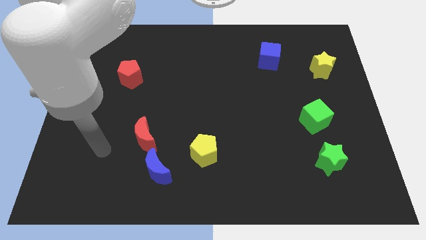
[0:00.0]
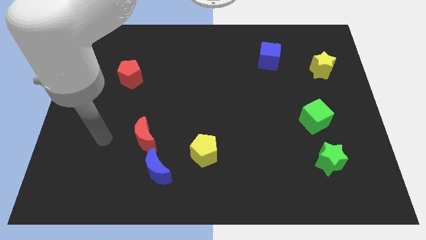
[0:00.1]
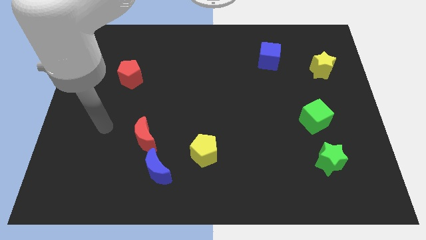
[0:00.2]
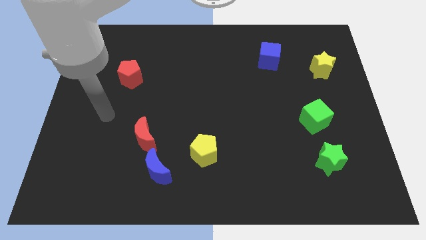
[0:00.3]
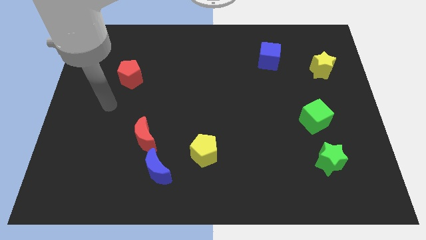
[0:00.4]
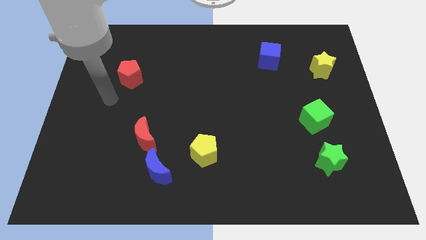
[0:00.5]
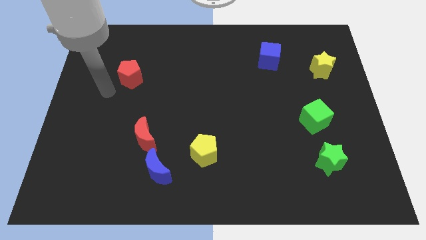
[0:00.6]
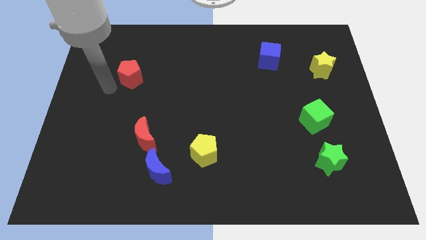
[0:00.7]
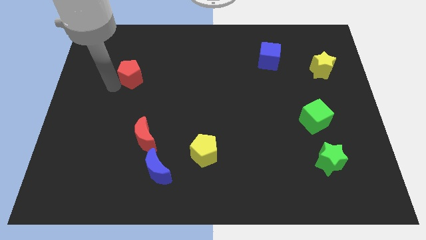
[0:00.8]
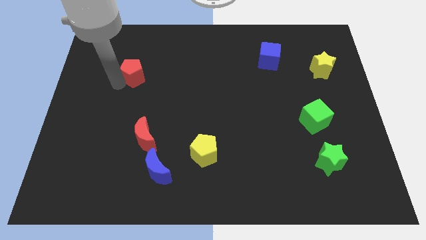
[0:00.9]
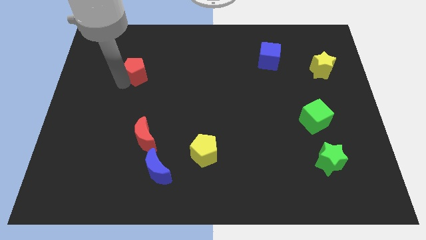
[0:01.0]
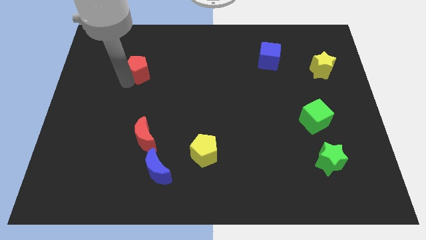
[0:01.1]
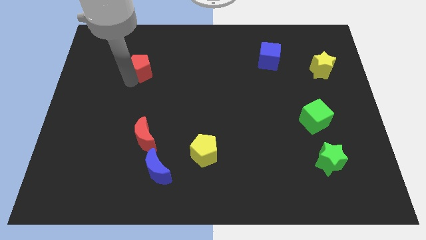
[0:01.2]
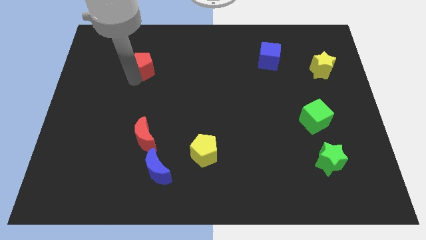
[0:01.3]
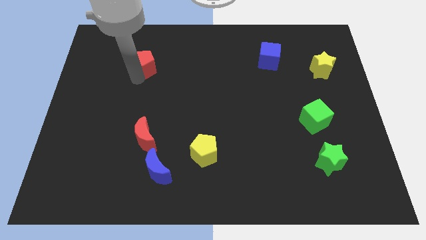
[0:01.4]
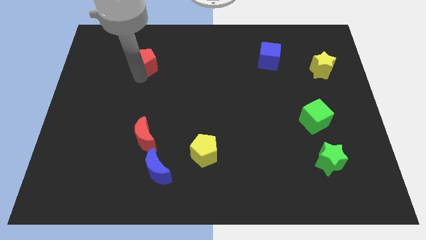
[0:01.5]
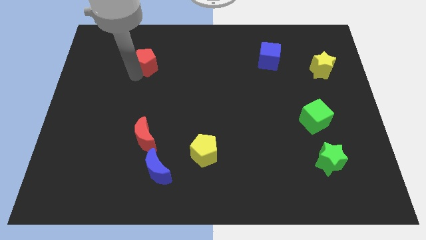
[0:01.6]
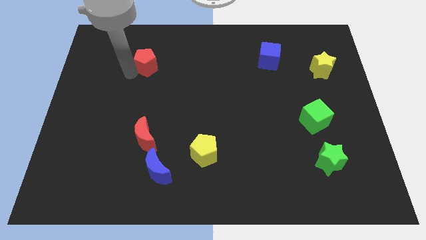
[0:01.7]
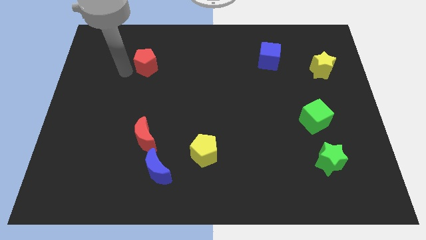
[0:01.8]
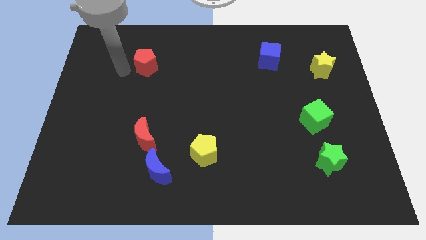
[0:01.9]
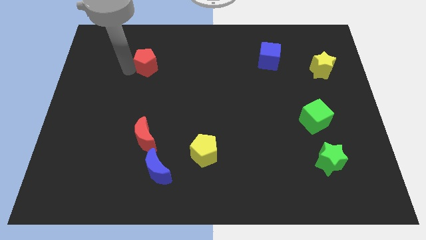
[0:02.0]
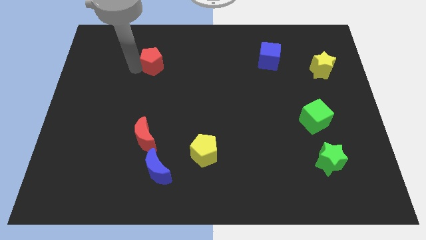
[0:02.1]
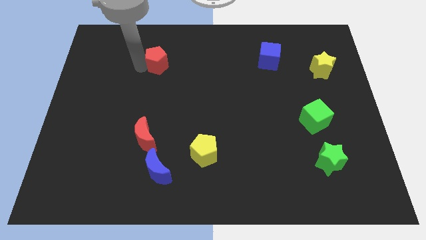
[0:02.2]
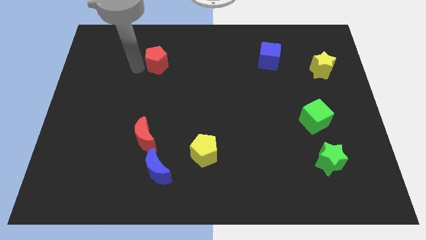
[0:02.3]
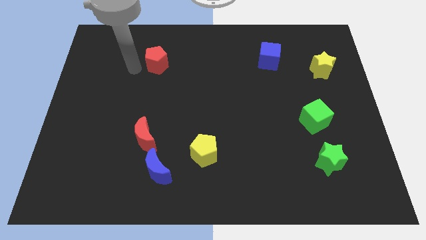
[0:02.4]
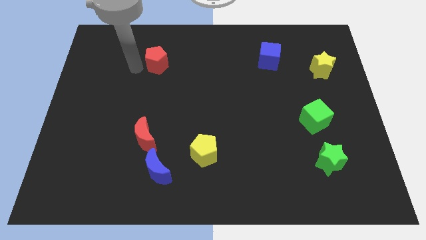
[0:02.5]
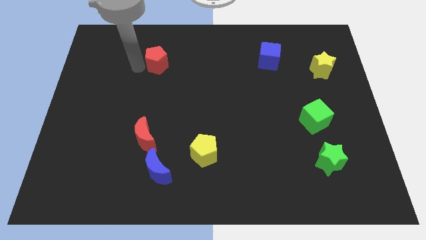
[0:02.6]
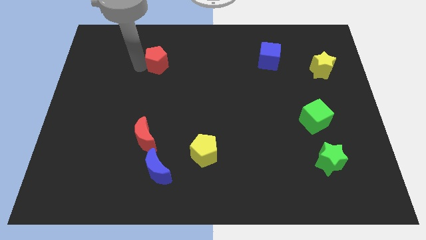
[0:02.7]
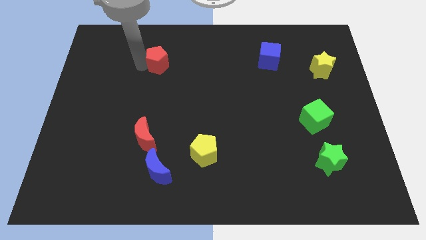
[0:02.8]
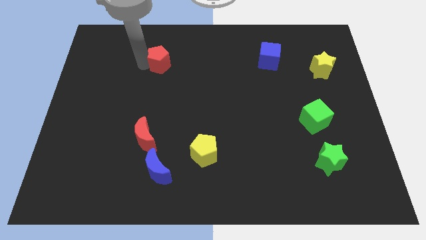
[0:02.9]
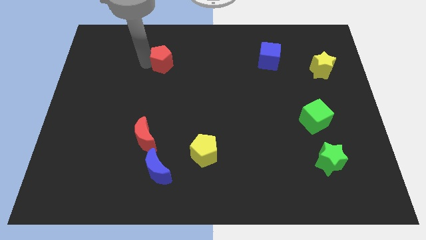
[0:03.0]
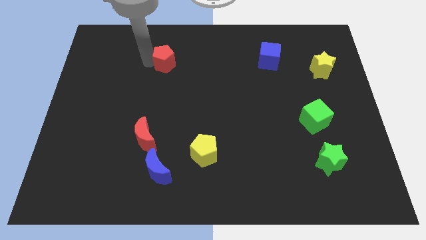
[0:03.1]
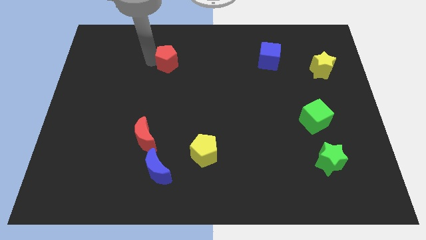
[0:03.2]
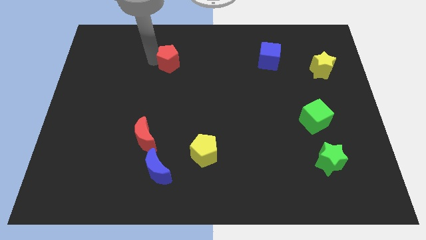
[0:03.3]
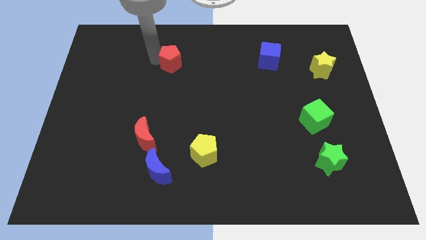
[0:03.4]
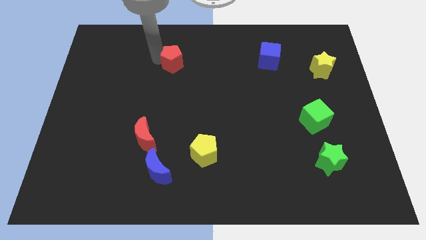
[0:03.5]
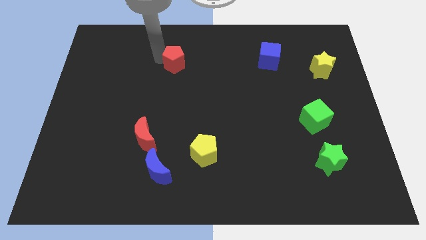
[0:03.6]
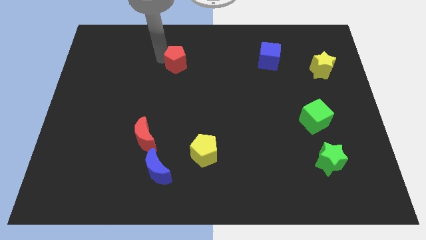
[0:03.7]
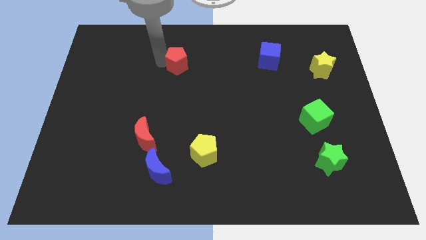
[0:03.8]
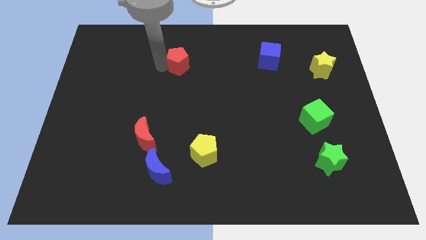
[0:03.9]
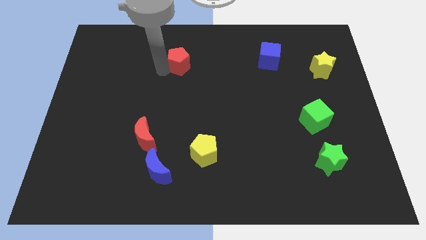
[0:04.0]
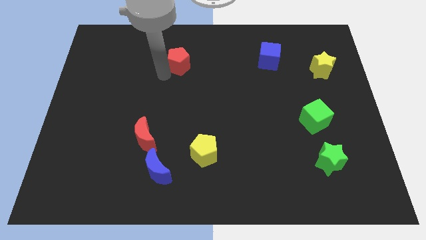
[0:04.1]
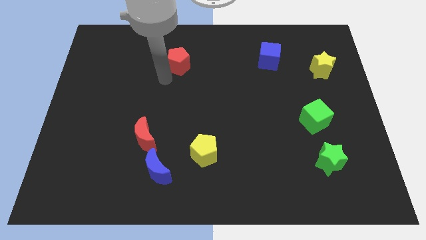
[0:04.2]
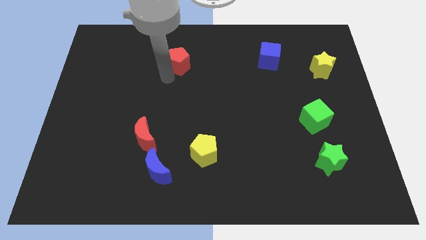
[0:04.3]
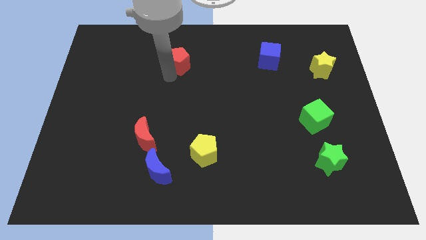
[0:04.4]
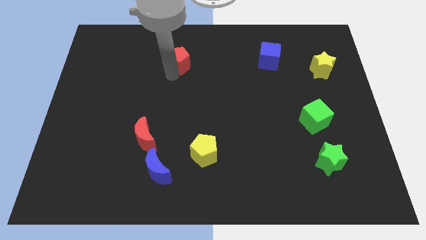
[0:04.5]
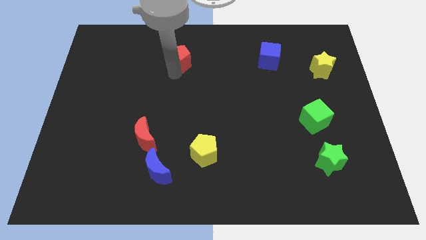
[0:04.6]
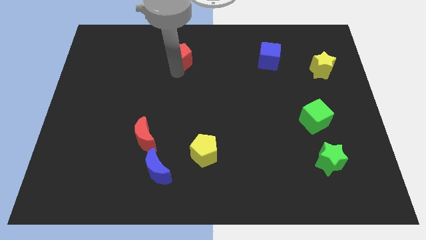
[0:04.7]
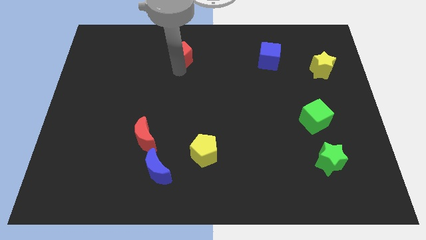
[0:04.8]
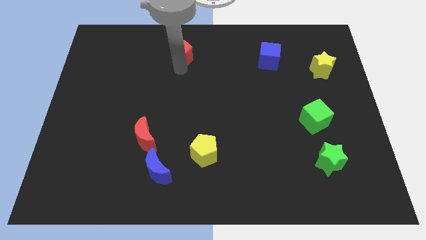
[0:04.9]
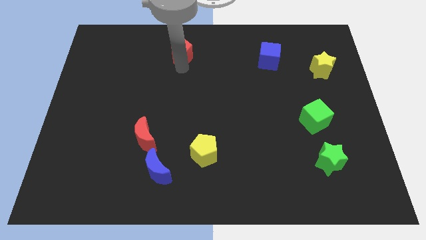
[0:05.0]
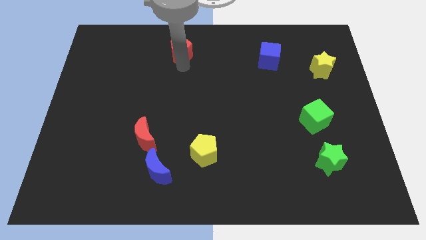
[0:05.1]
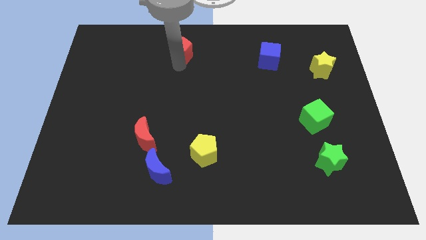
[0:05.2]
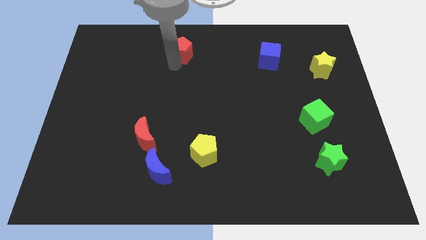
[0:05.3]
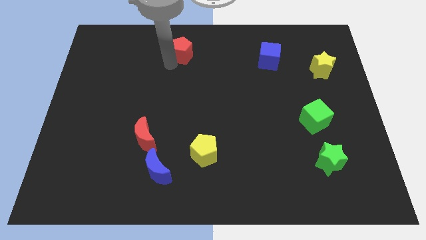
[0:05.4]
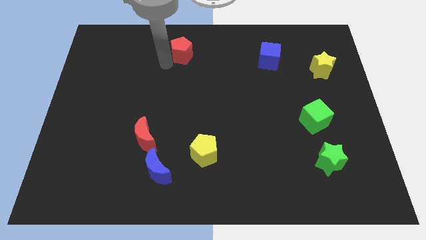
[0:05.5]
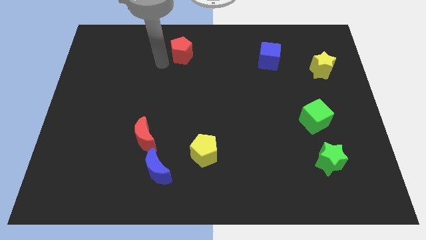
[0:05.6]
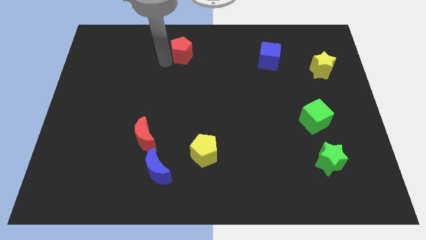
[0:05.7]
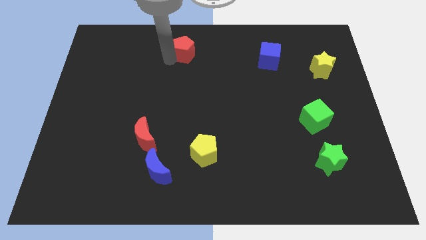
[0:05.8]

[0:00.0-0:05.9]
slide the red pentagon to the top side

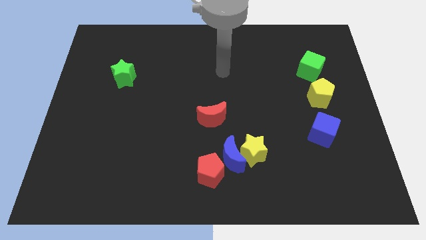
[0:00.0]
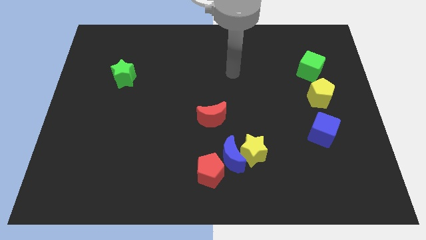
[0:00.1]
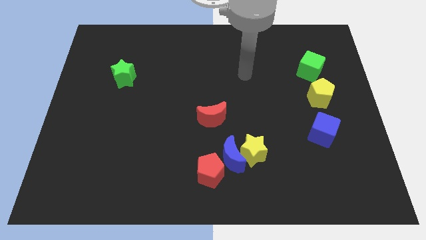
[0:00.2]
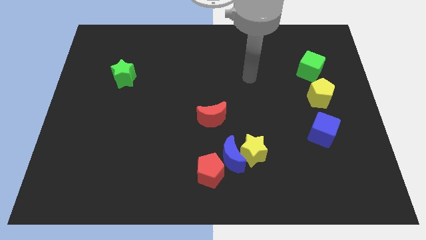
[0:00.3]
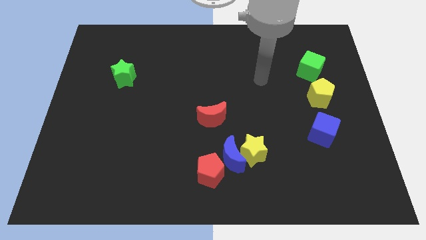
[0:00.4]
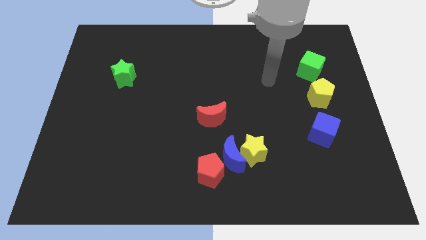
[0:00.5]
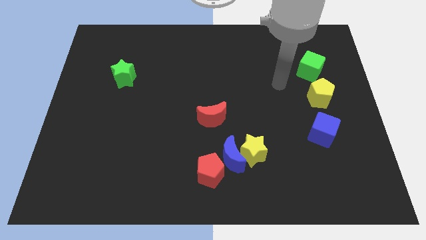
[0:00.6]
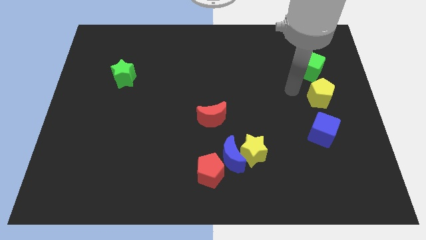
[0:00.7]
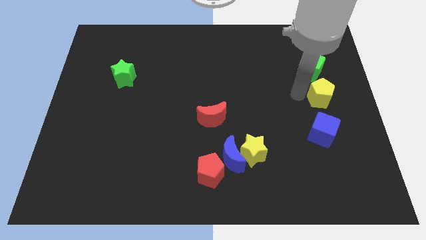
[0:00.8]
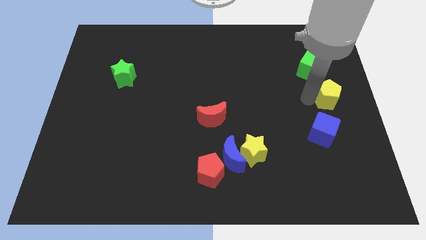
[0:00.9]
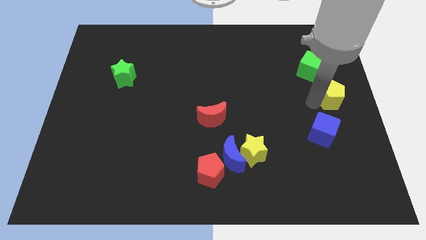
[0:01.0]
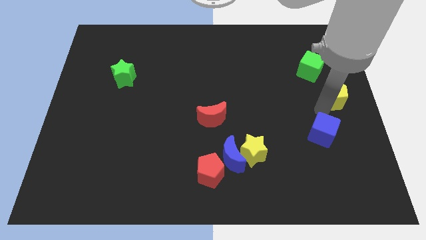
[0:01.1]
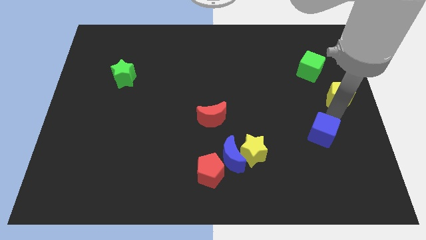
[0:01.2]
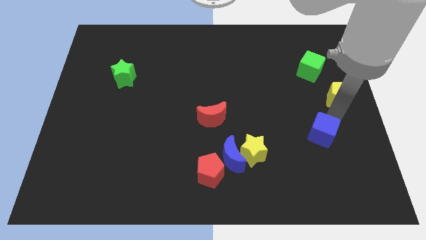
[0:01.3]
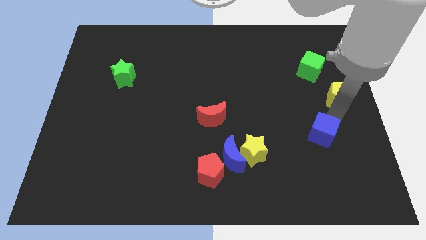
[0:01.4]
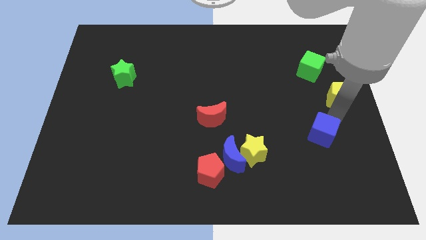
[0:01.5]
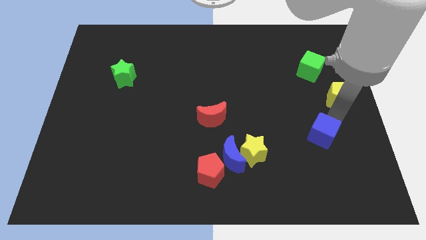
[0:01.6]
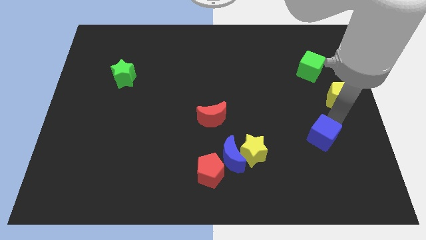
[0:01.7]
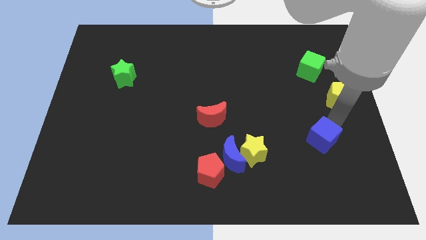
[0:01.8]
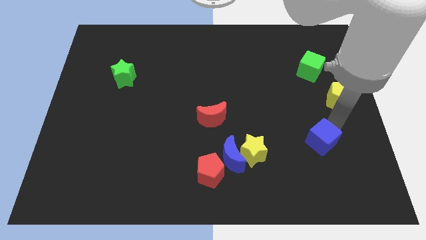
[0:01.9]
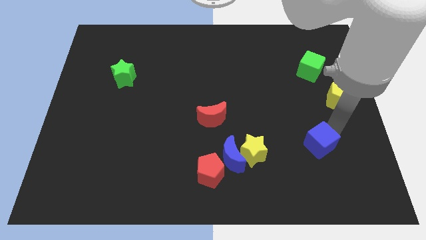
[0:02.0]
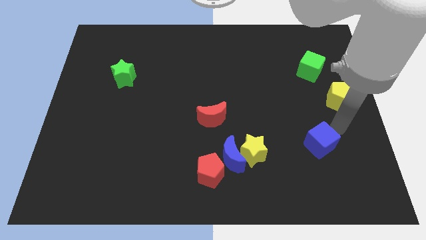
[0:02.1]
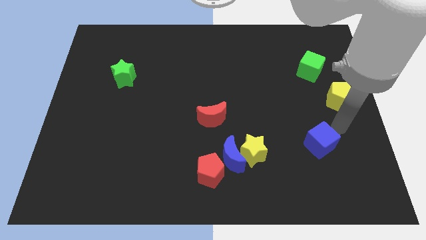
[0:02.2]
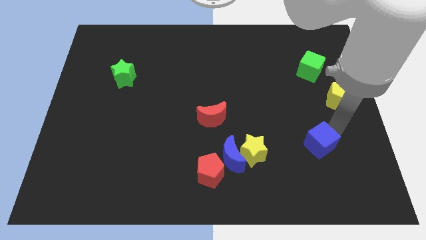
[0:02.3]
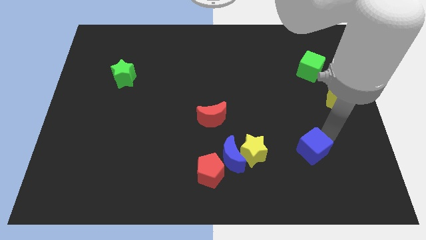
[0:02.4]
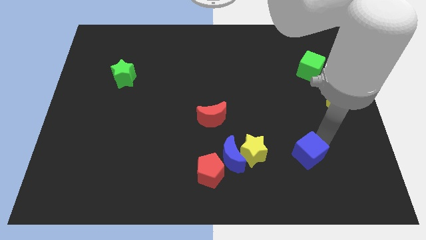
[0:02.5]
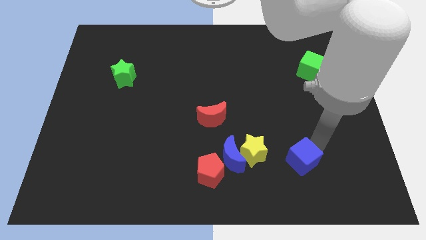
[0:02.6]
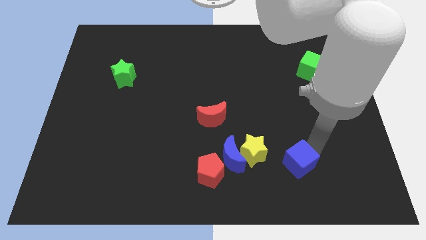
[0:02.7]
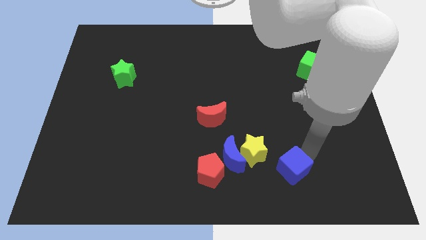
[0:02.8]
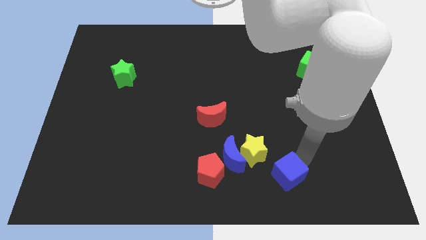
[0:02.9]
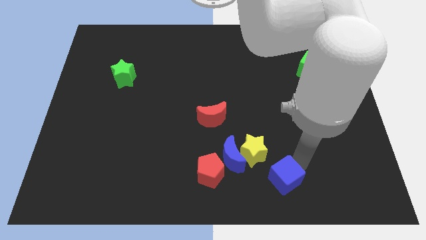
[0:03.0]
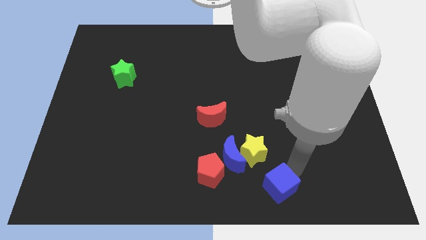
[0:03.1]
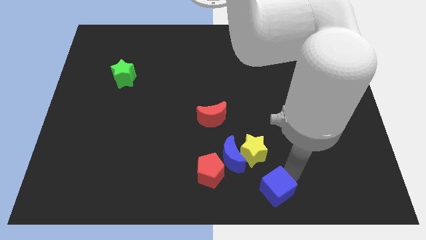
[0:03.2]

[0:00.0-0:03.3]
move the blue cube to the bottom side
